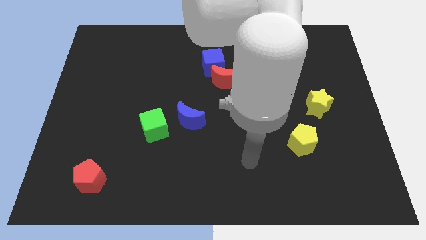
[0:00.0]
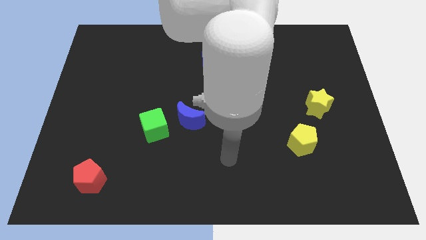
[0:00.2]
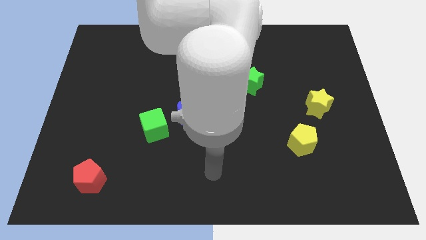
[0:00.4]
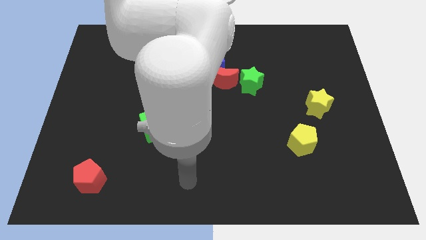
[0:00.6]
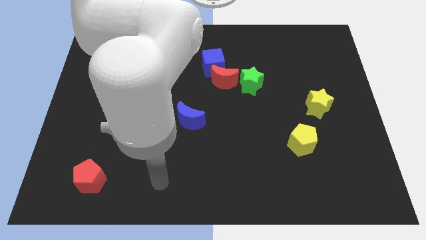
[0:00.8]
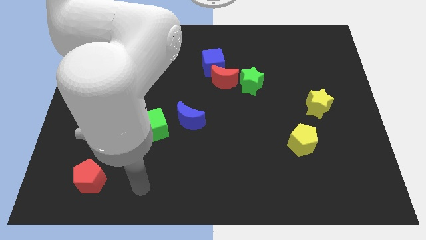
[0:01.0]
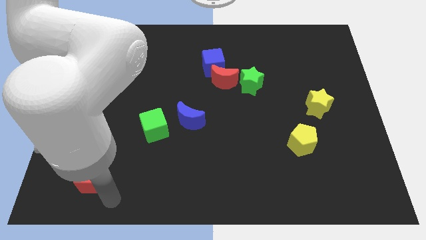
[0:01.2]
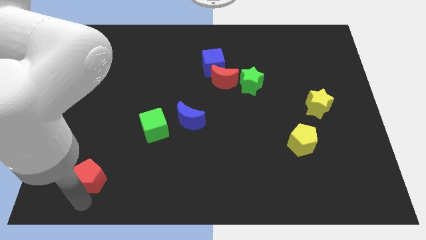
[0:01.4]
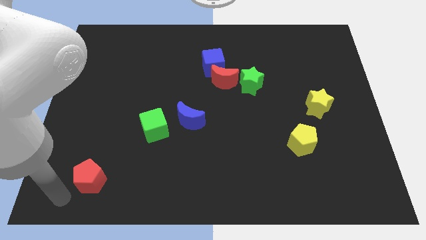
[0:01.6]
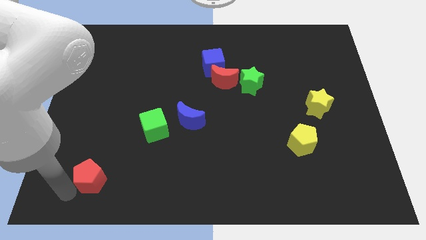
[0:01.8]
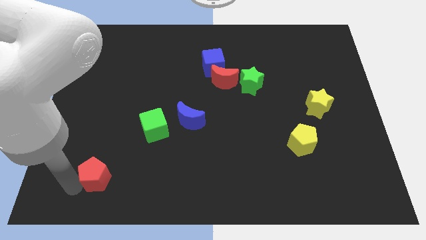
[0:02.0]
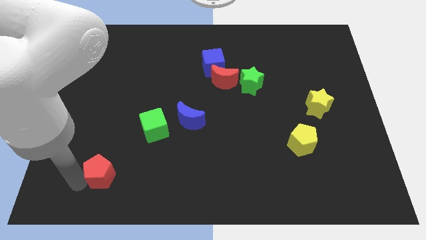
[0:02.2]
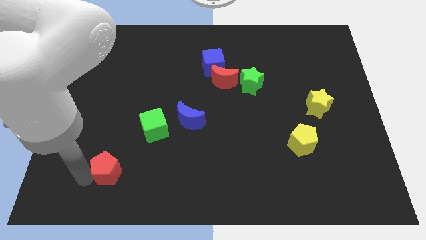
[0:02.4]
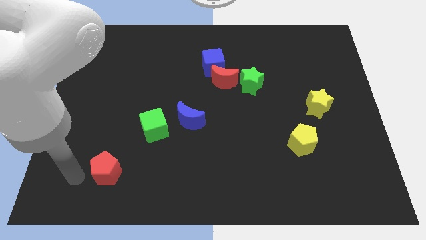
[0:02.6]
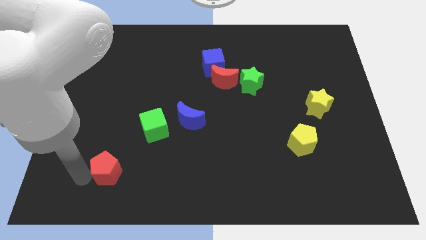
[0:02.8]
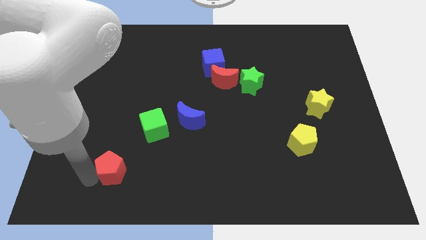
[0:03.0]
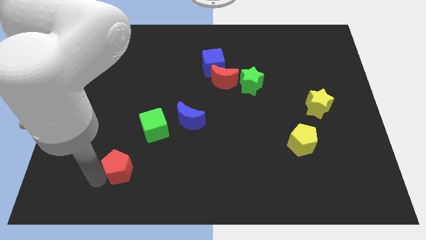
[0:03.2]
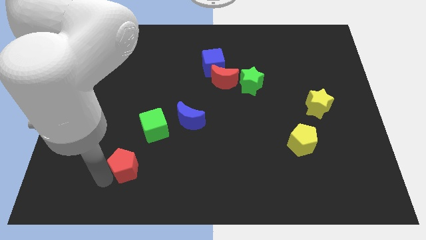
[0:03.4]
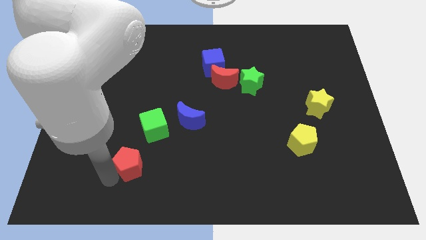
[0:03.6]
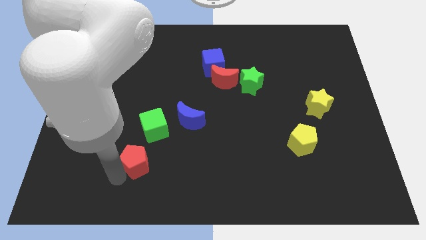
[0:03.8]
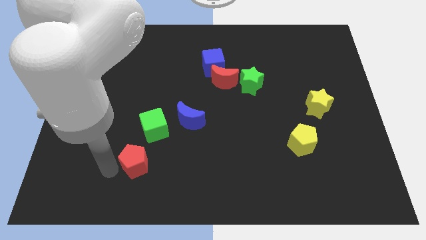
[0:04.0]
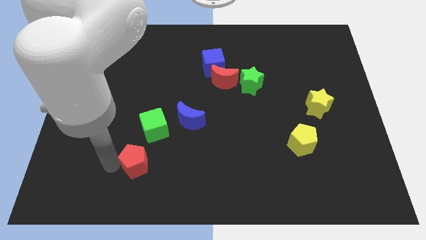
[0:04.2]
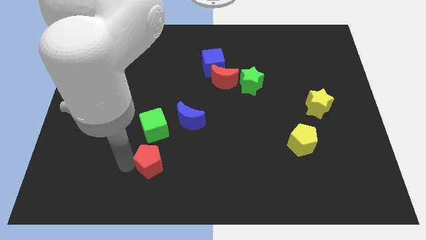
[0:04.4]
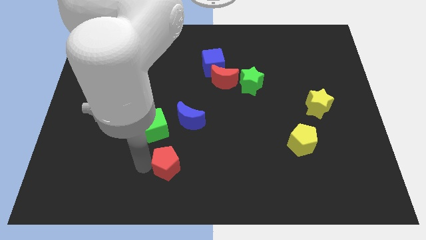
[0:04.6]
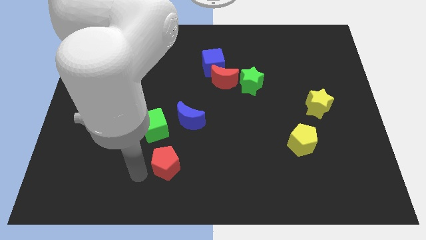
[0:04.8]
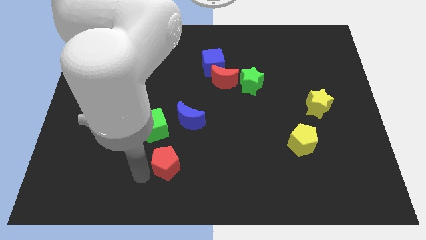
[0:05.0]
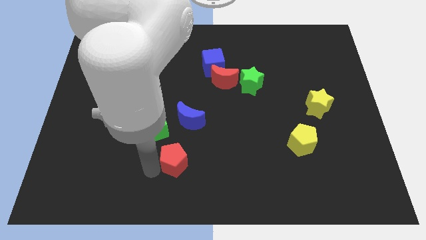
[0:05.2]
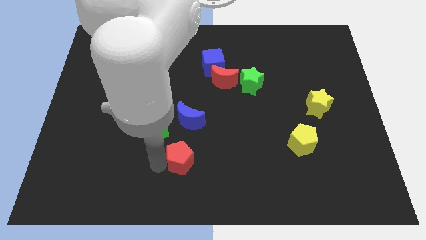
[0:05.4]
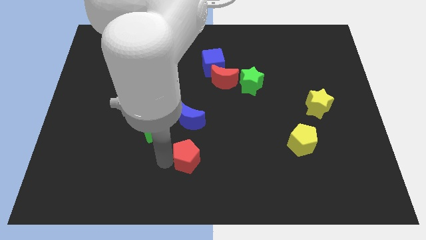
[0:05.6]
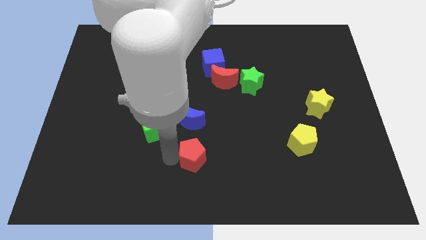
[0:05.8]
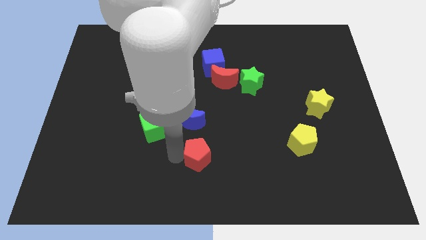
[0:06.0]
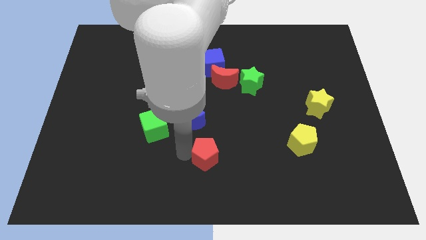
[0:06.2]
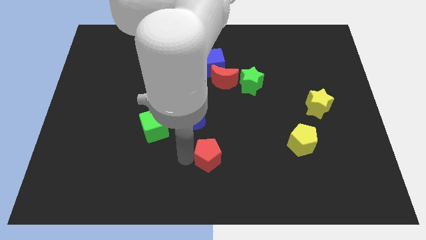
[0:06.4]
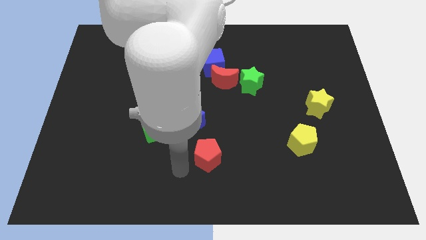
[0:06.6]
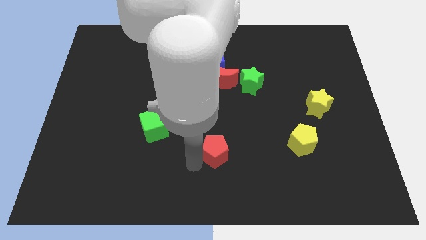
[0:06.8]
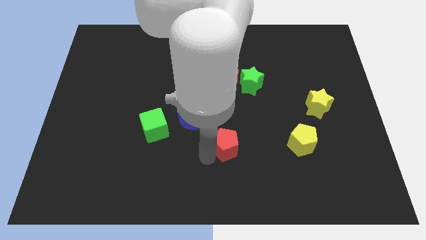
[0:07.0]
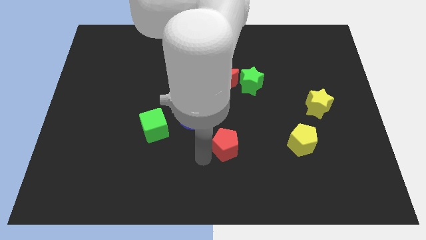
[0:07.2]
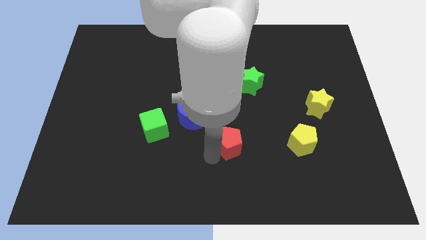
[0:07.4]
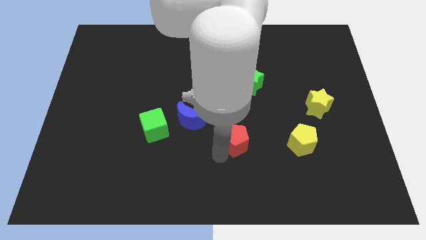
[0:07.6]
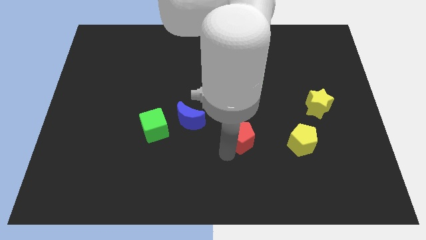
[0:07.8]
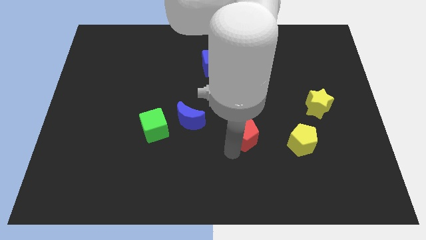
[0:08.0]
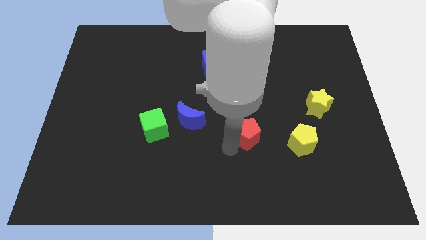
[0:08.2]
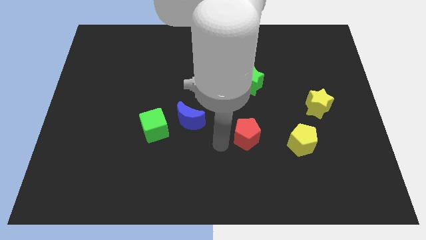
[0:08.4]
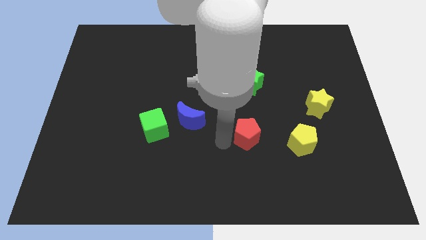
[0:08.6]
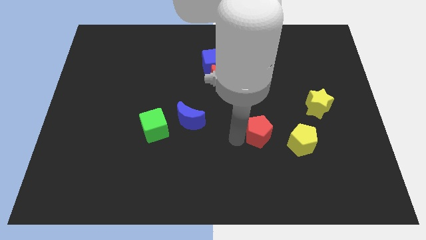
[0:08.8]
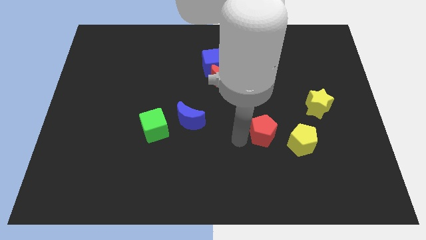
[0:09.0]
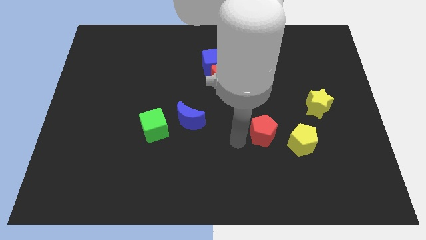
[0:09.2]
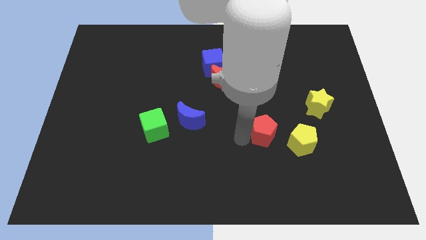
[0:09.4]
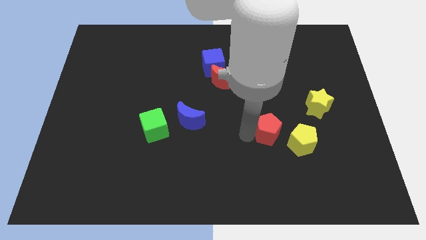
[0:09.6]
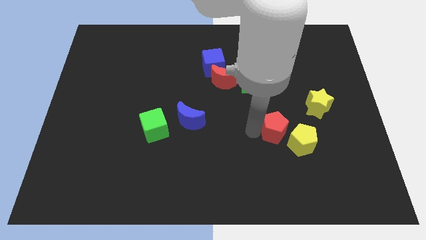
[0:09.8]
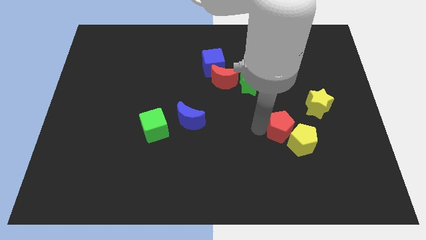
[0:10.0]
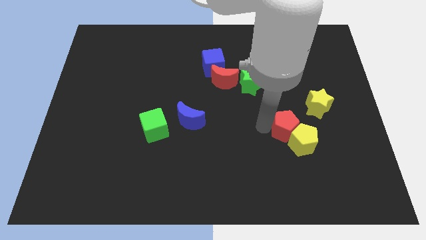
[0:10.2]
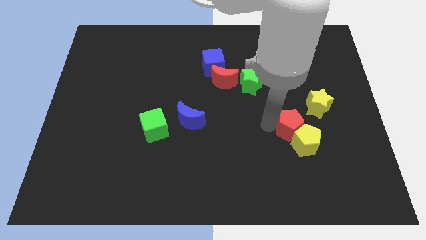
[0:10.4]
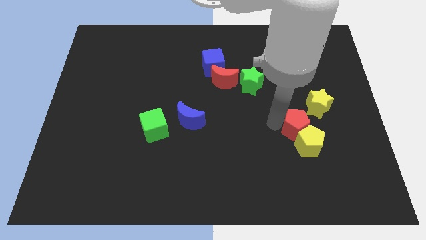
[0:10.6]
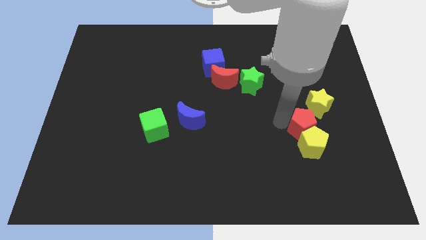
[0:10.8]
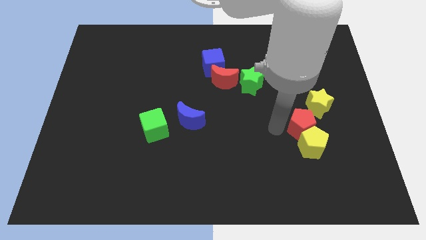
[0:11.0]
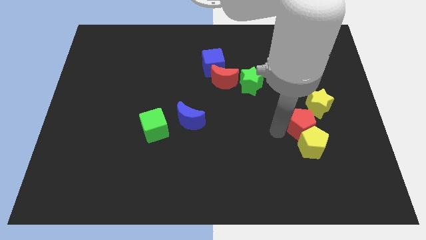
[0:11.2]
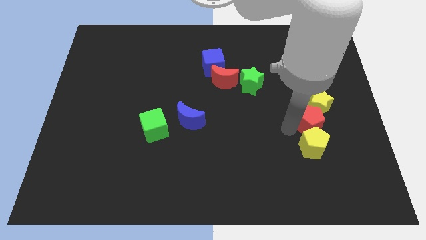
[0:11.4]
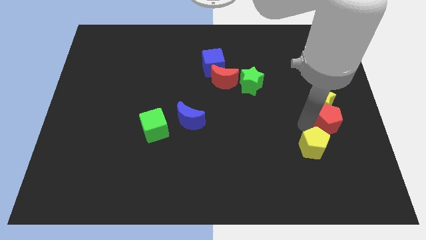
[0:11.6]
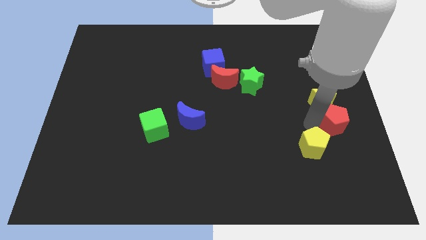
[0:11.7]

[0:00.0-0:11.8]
move the red pentagon to the right side

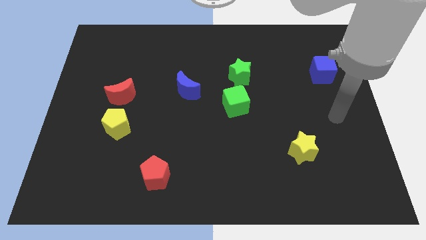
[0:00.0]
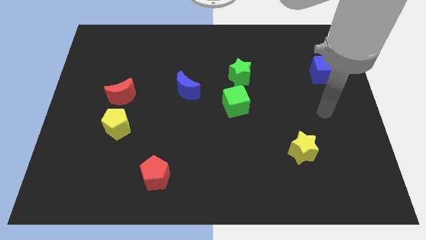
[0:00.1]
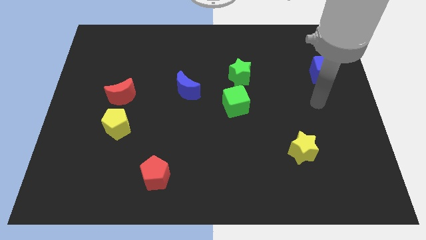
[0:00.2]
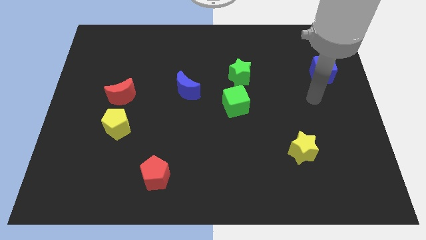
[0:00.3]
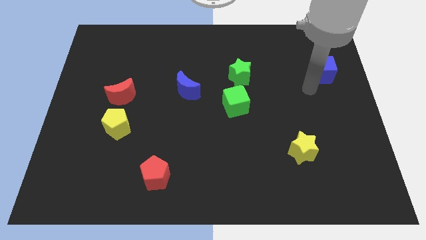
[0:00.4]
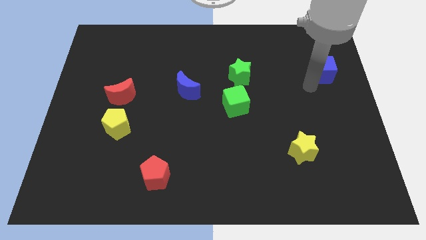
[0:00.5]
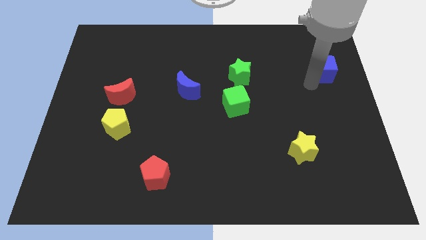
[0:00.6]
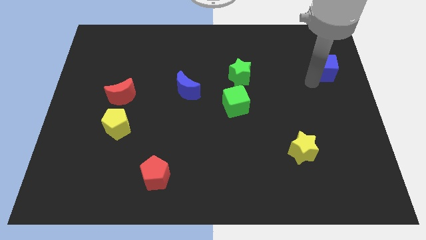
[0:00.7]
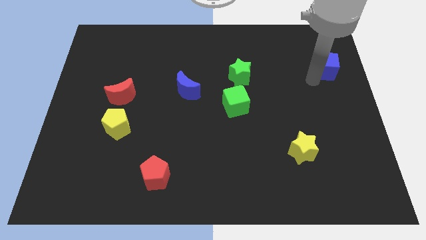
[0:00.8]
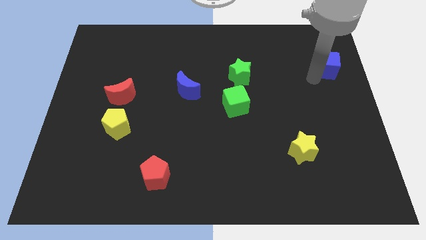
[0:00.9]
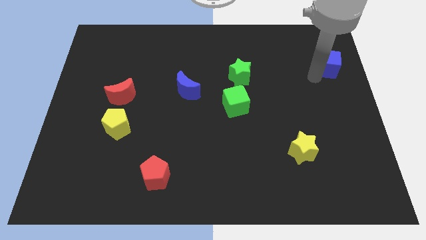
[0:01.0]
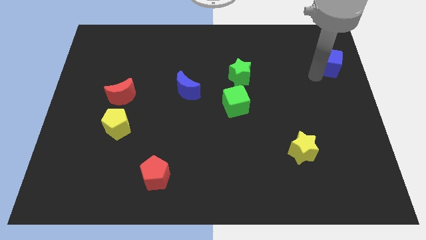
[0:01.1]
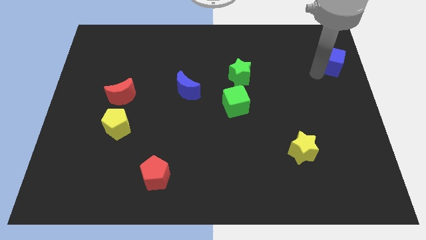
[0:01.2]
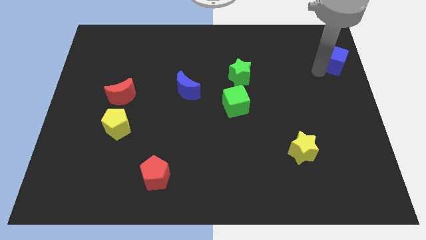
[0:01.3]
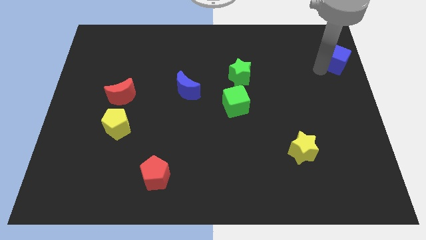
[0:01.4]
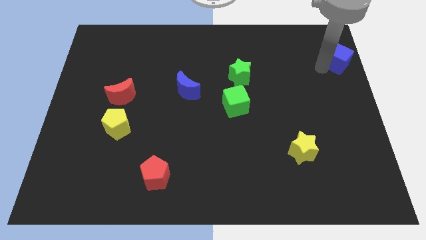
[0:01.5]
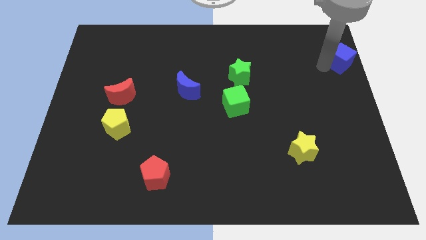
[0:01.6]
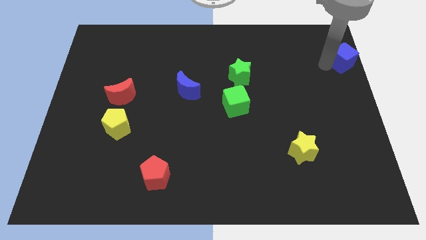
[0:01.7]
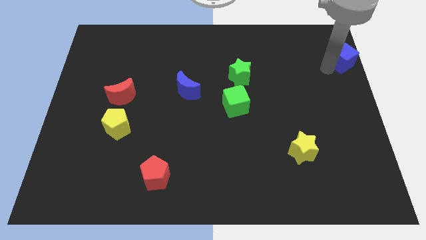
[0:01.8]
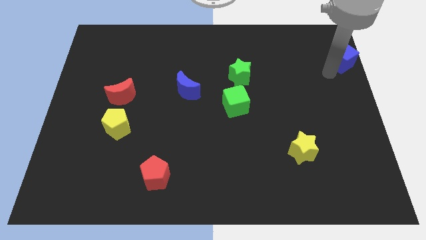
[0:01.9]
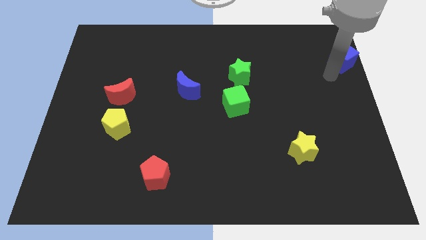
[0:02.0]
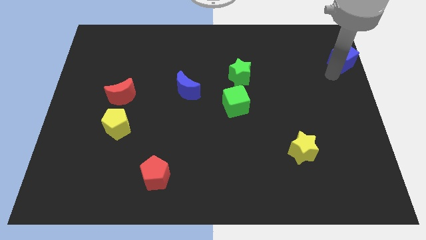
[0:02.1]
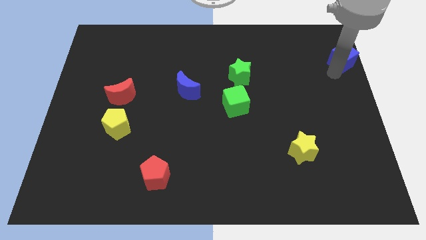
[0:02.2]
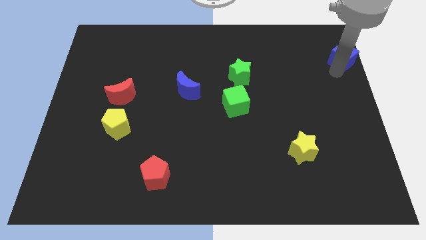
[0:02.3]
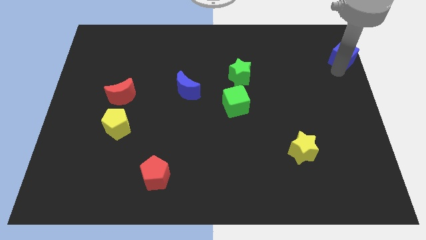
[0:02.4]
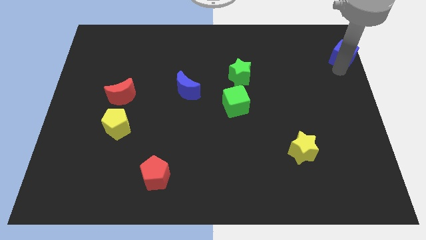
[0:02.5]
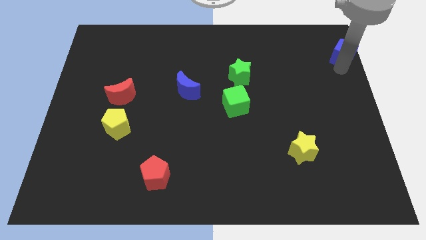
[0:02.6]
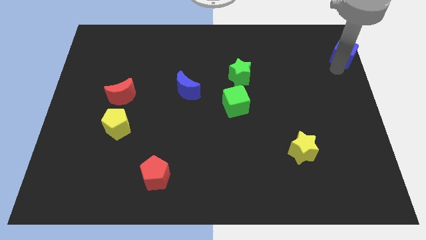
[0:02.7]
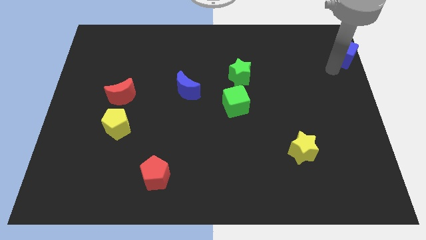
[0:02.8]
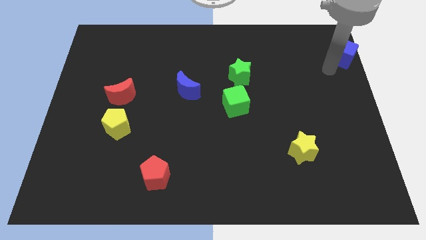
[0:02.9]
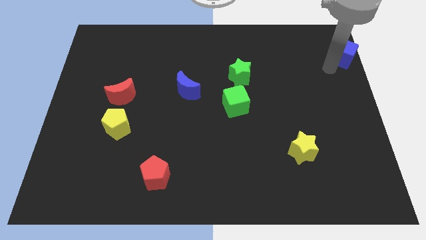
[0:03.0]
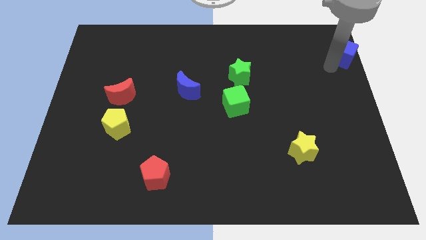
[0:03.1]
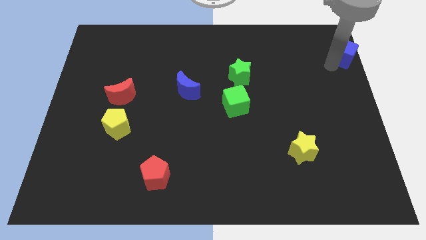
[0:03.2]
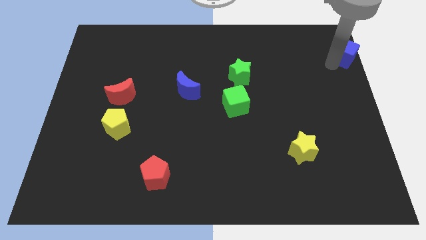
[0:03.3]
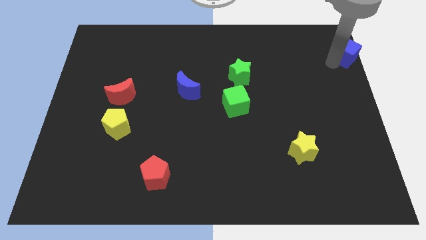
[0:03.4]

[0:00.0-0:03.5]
put the blue cube to the top right
